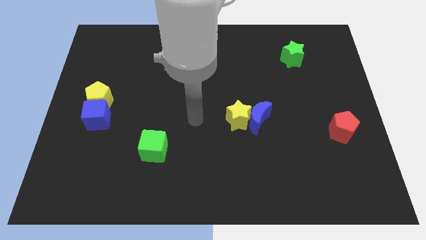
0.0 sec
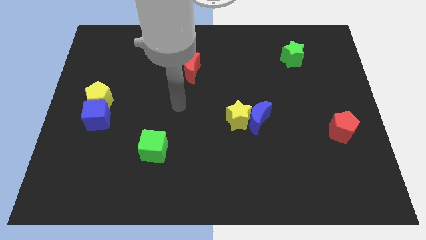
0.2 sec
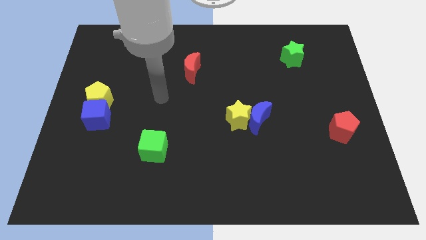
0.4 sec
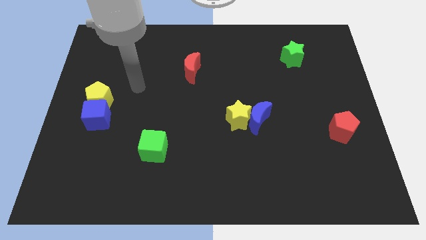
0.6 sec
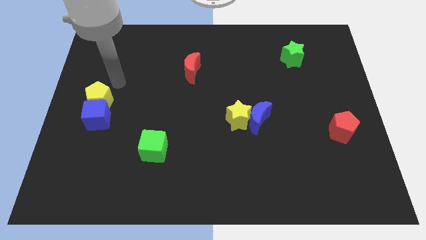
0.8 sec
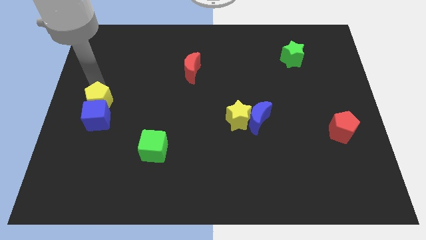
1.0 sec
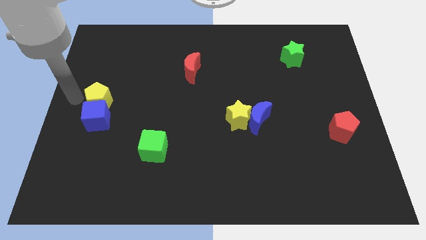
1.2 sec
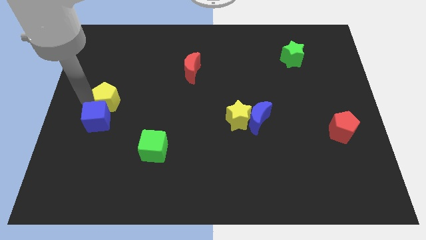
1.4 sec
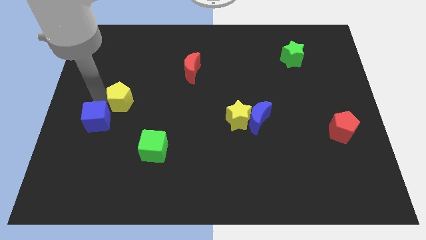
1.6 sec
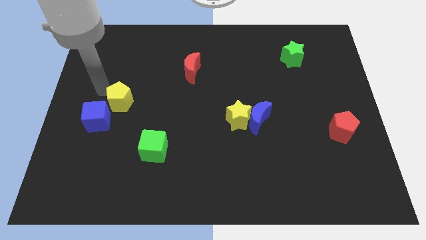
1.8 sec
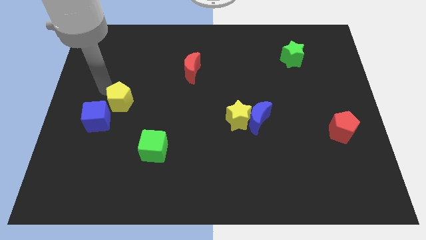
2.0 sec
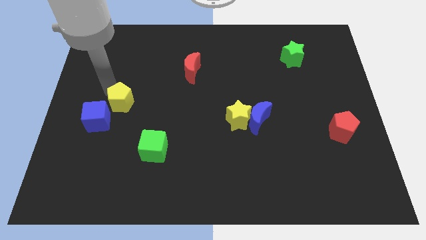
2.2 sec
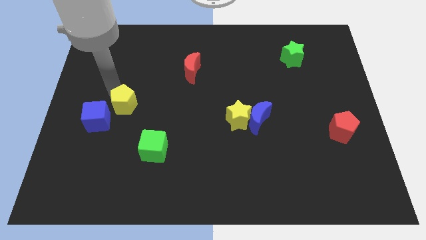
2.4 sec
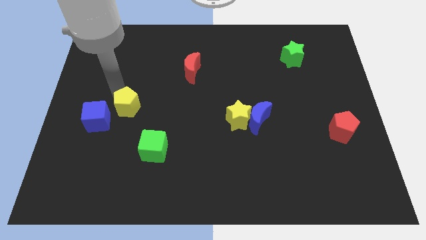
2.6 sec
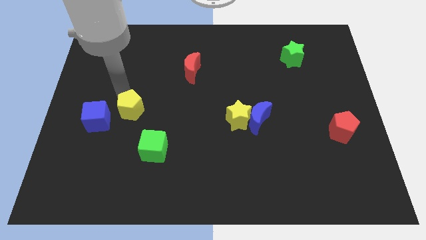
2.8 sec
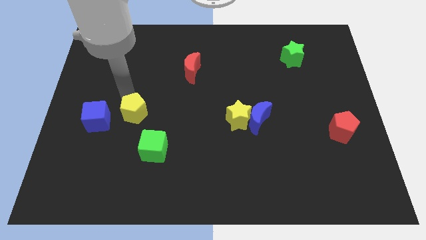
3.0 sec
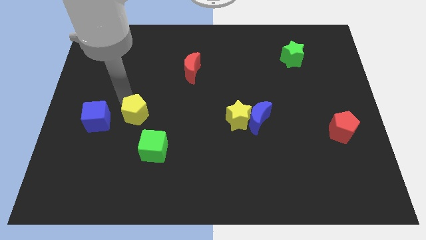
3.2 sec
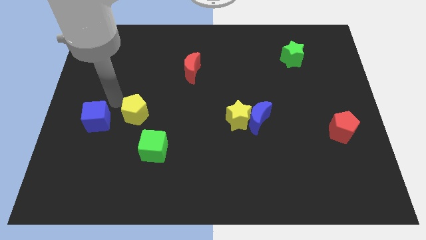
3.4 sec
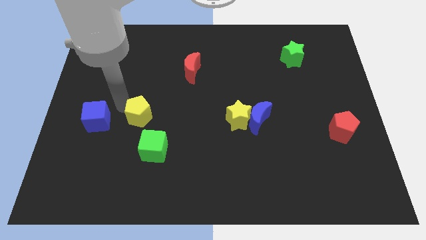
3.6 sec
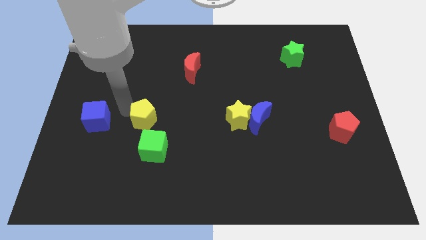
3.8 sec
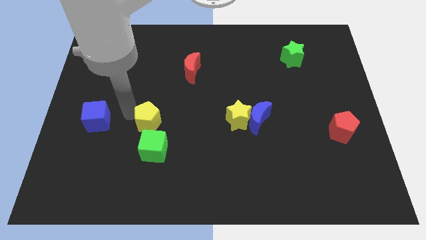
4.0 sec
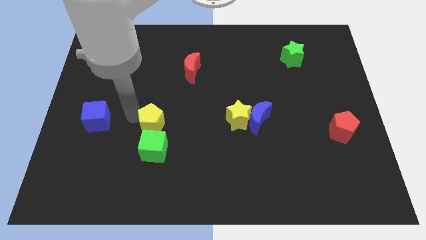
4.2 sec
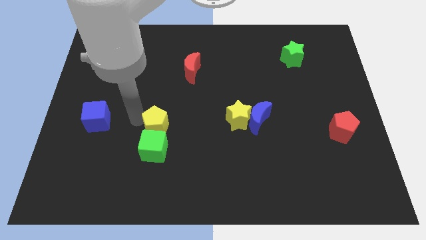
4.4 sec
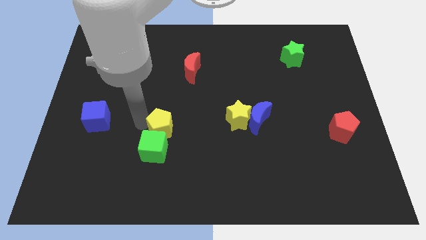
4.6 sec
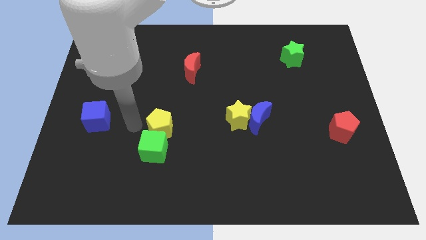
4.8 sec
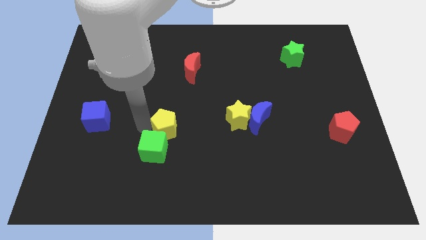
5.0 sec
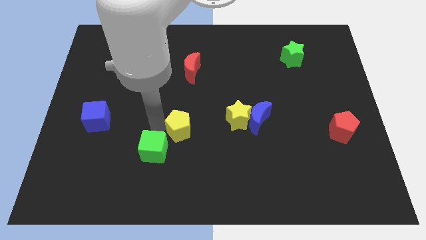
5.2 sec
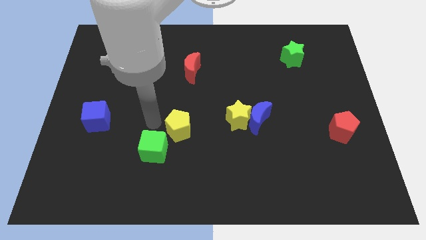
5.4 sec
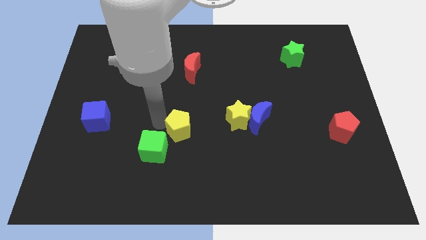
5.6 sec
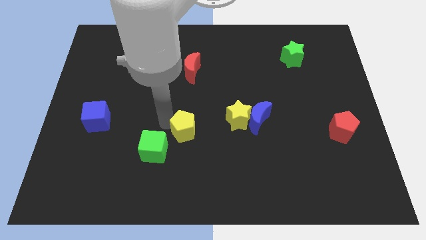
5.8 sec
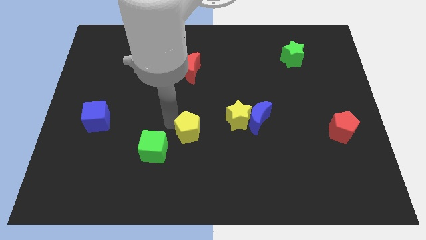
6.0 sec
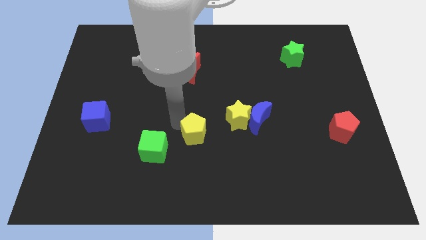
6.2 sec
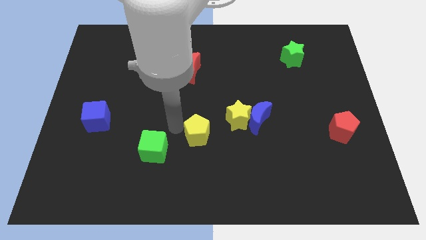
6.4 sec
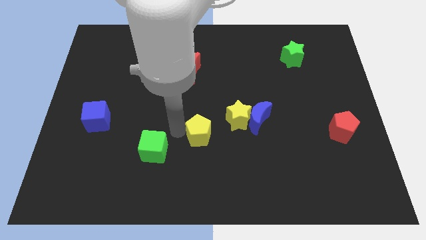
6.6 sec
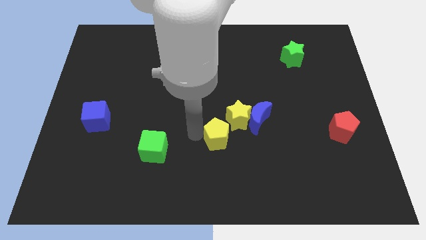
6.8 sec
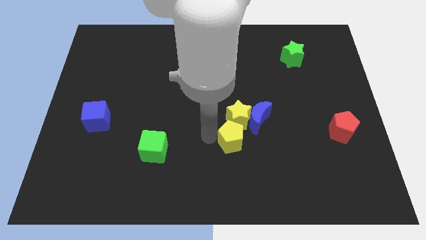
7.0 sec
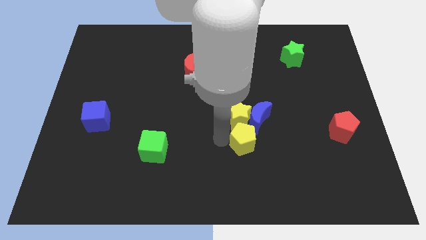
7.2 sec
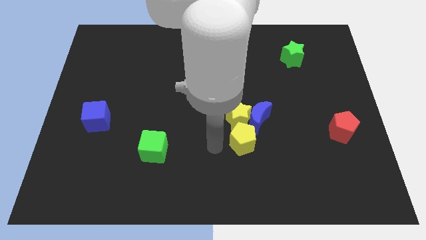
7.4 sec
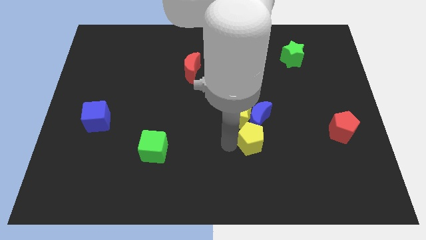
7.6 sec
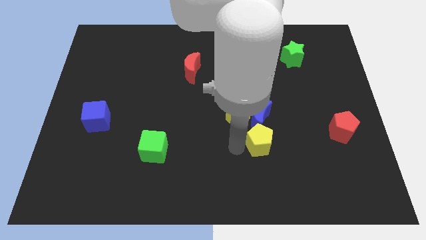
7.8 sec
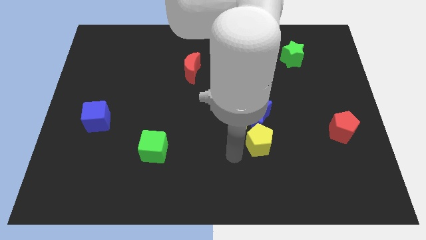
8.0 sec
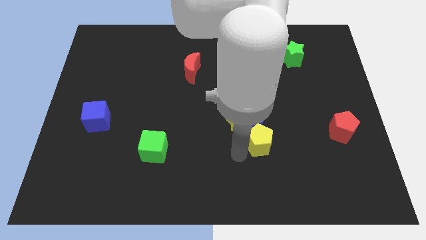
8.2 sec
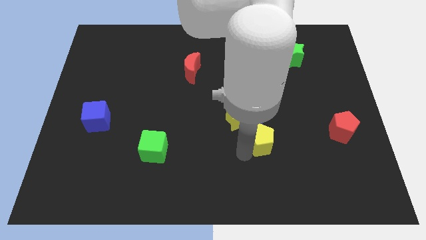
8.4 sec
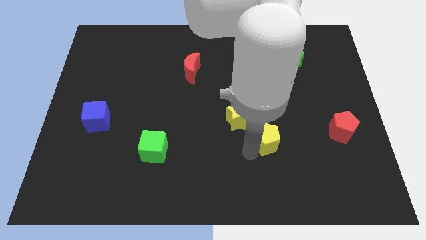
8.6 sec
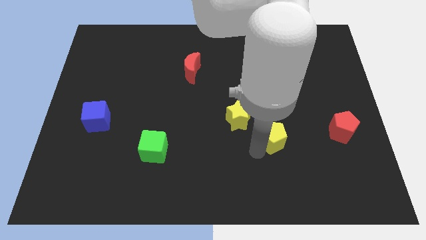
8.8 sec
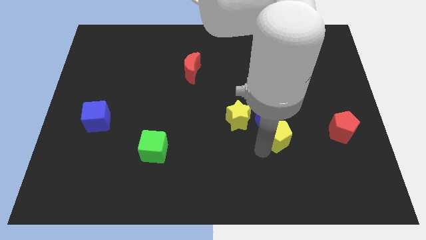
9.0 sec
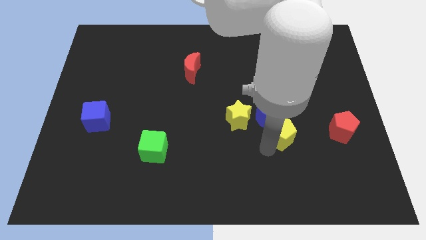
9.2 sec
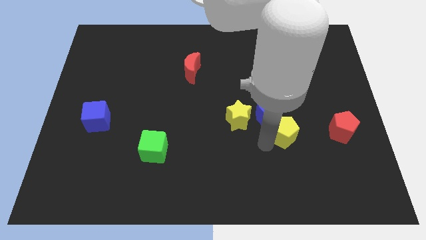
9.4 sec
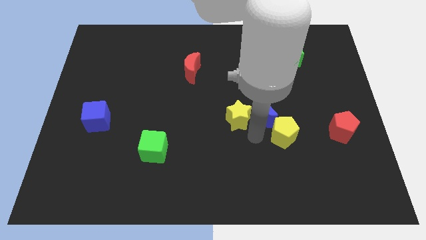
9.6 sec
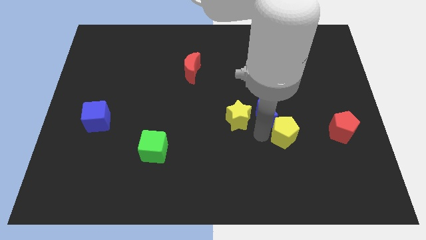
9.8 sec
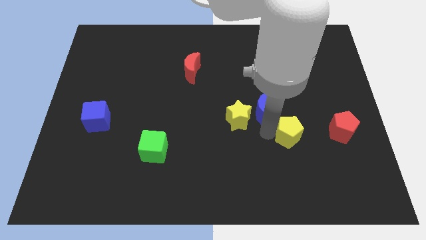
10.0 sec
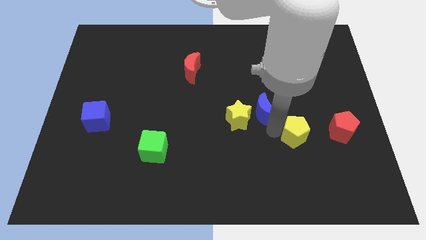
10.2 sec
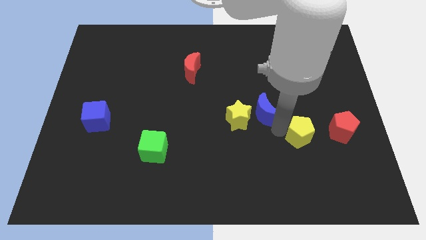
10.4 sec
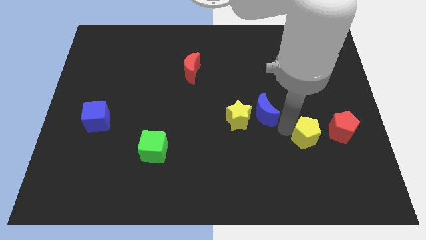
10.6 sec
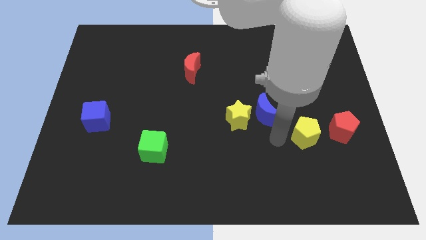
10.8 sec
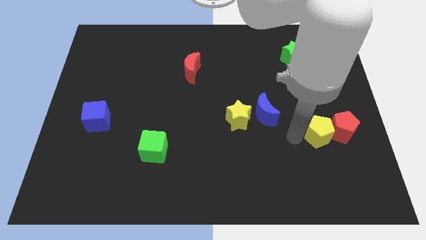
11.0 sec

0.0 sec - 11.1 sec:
move the yellow pentagon towards the red pentagon

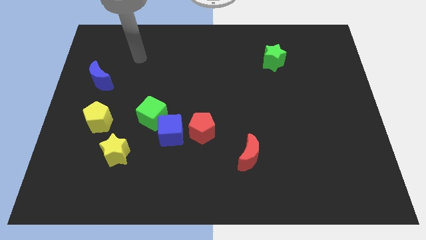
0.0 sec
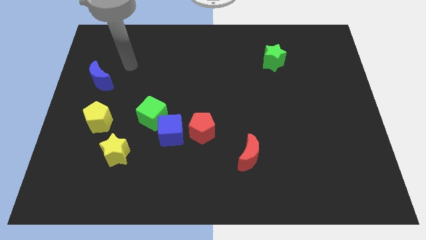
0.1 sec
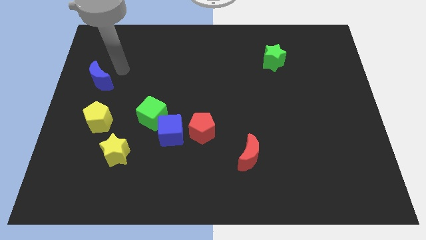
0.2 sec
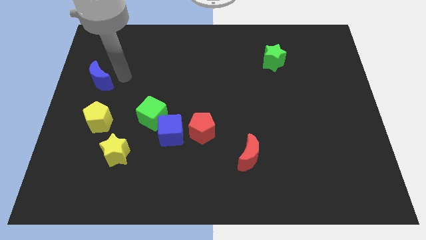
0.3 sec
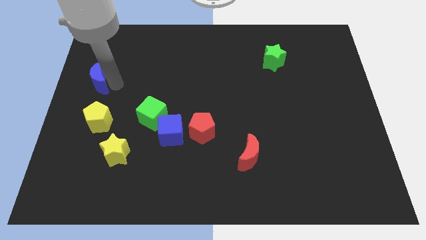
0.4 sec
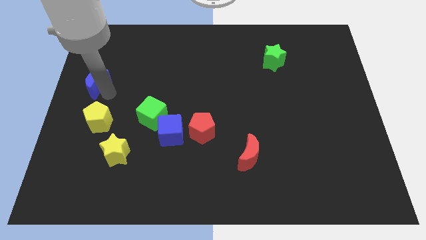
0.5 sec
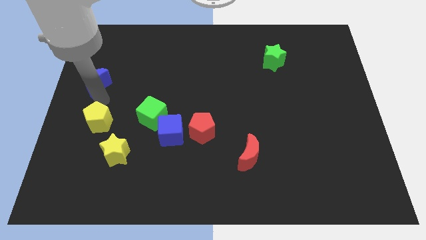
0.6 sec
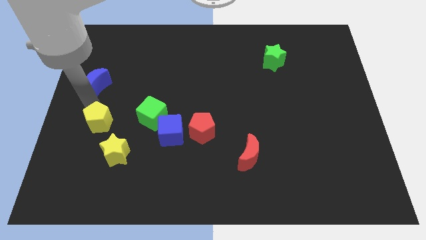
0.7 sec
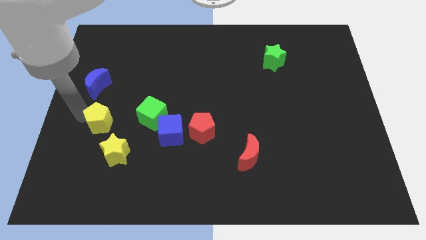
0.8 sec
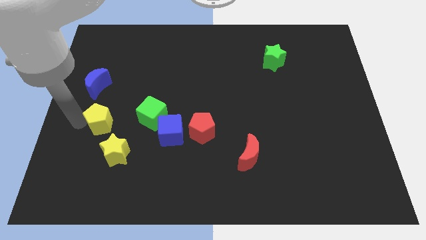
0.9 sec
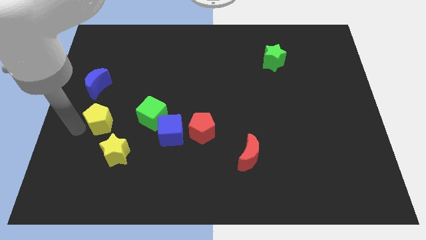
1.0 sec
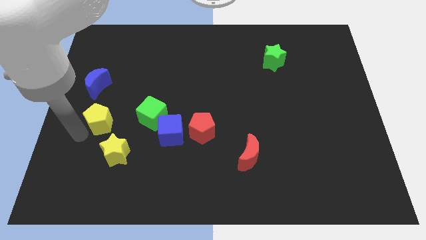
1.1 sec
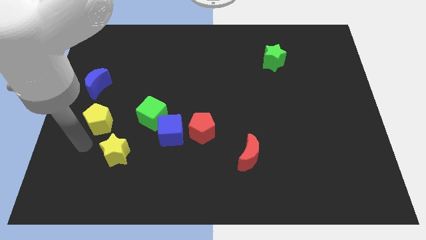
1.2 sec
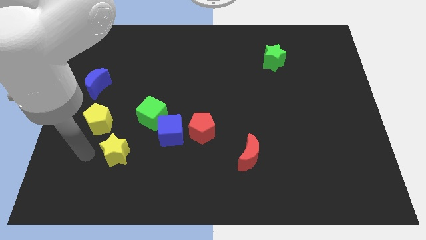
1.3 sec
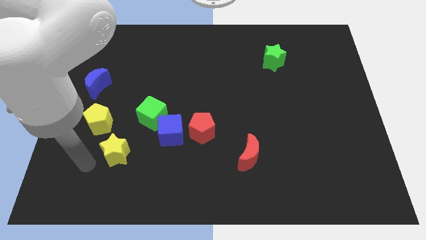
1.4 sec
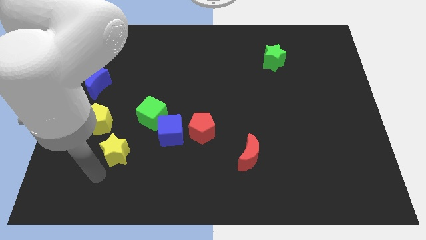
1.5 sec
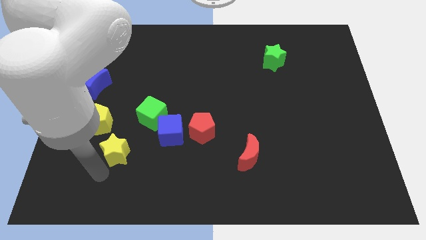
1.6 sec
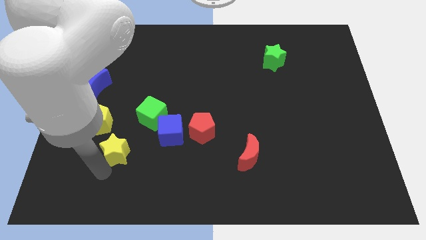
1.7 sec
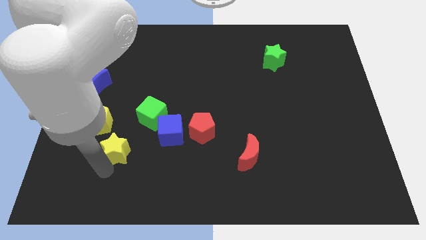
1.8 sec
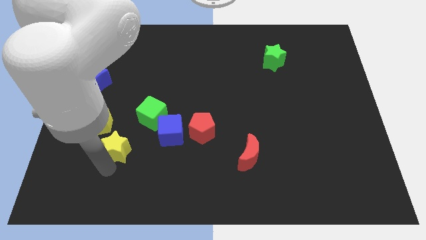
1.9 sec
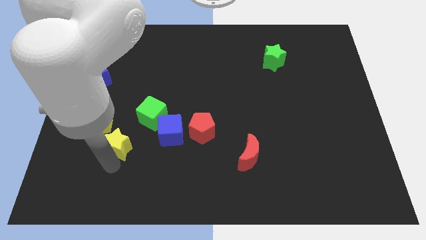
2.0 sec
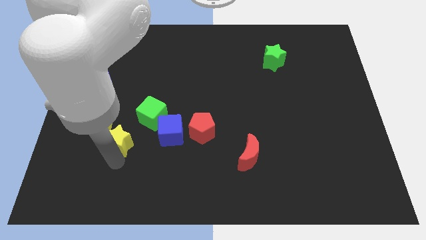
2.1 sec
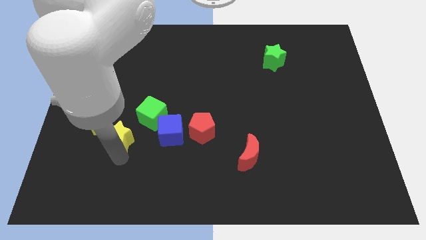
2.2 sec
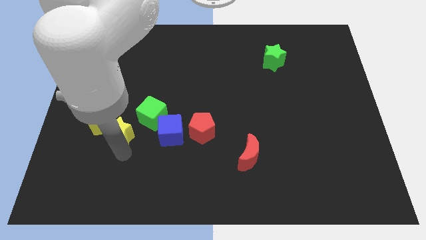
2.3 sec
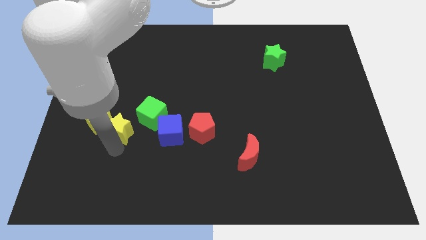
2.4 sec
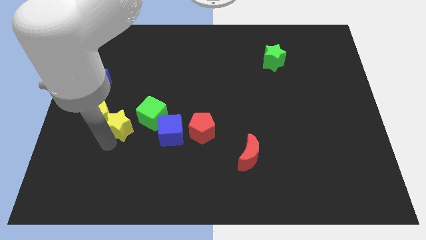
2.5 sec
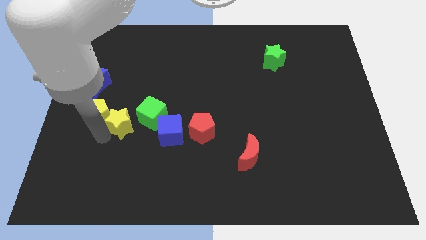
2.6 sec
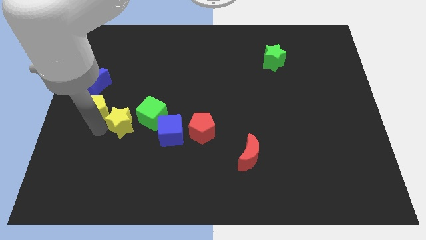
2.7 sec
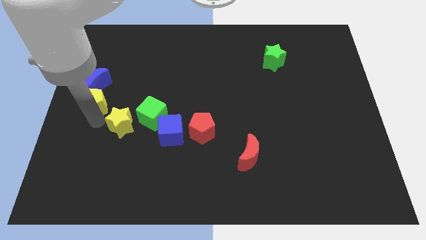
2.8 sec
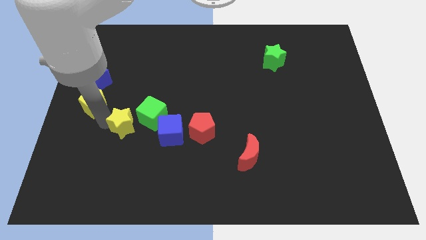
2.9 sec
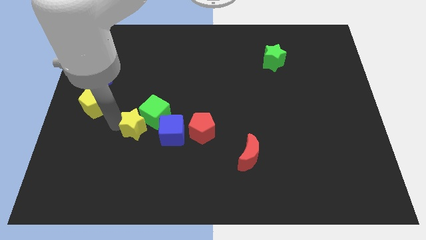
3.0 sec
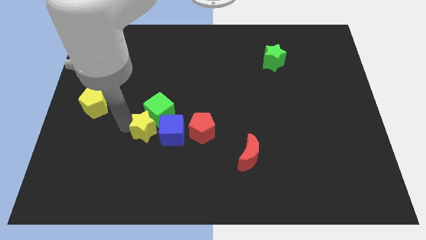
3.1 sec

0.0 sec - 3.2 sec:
push the yellow star towards the blue cube
